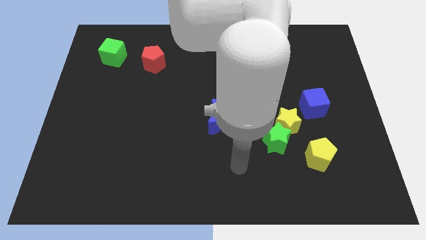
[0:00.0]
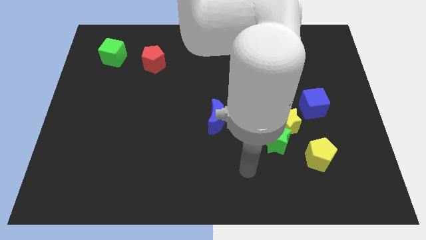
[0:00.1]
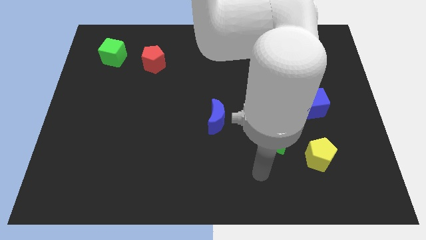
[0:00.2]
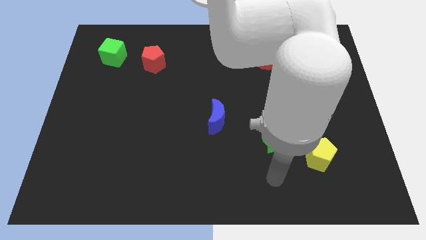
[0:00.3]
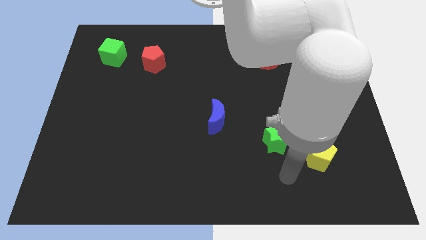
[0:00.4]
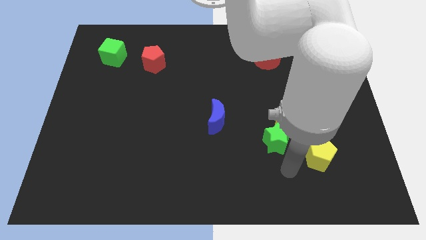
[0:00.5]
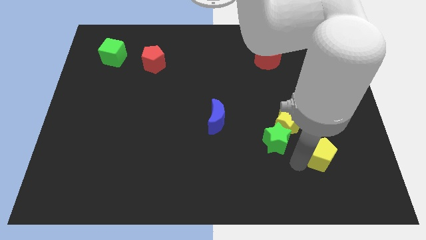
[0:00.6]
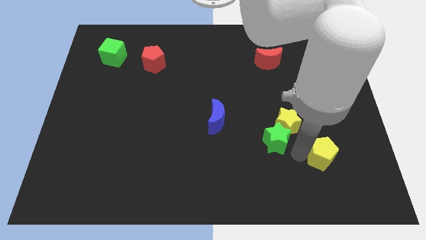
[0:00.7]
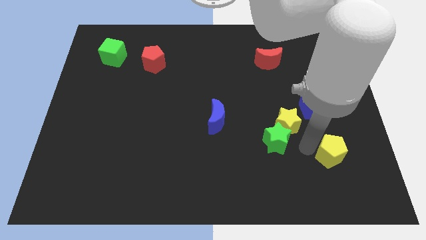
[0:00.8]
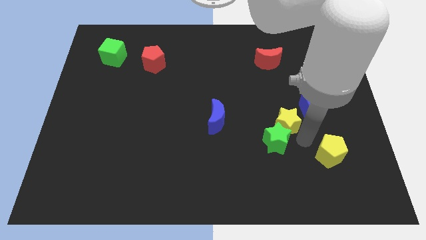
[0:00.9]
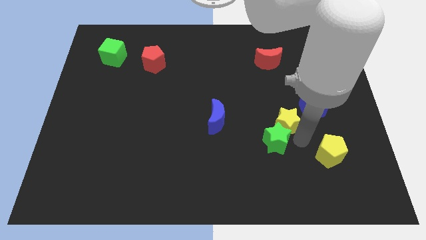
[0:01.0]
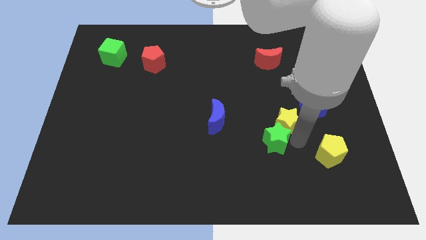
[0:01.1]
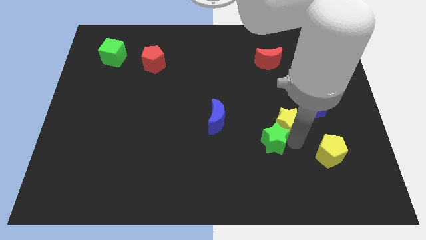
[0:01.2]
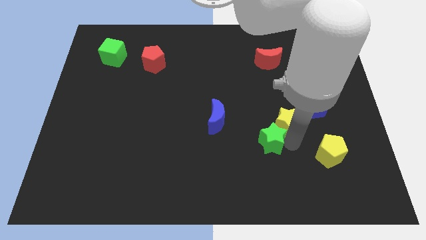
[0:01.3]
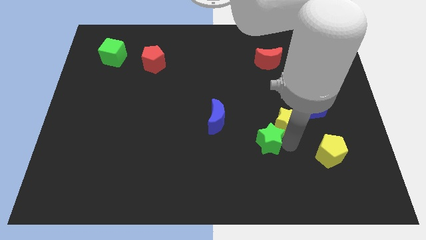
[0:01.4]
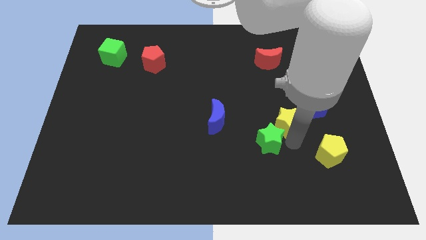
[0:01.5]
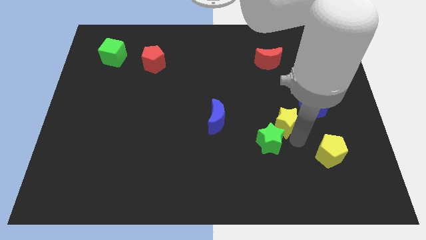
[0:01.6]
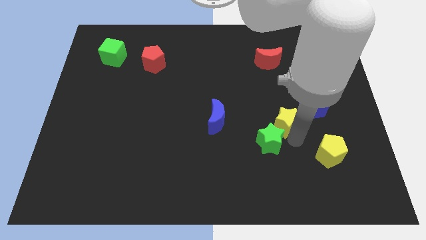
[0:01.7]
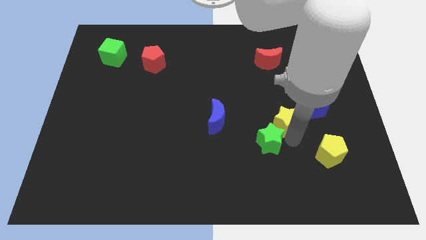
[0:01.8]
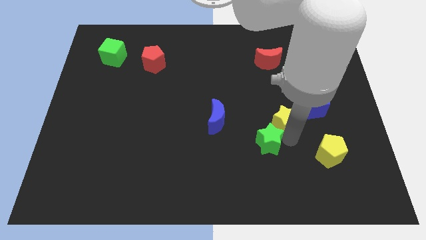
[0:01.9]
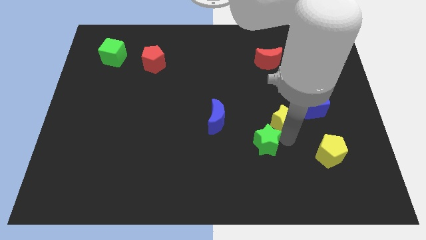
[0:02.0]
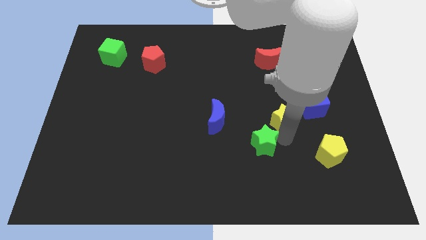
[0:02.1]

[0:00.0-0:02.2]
pull the green star apart from the yellow star and yellow pentagon

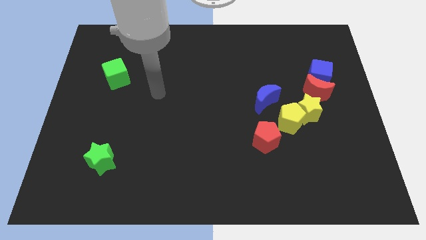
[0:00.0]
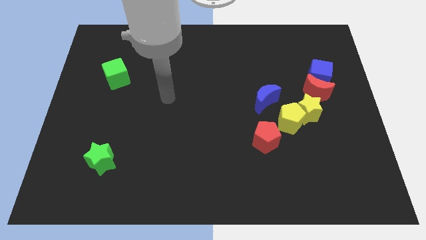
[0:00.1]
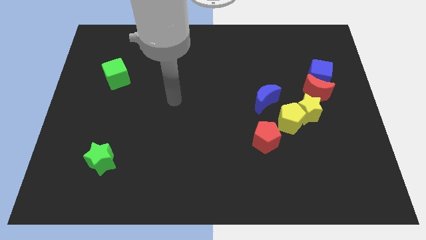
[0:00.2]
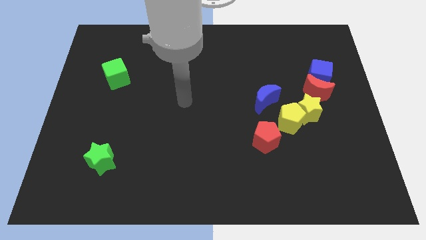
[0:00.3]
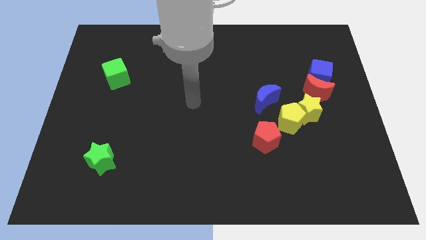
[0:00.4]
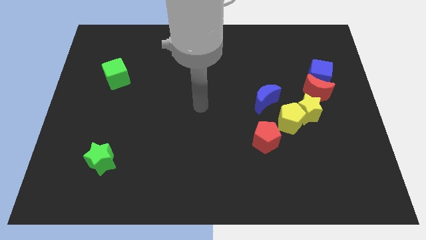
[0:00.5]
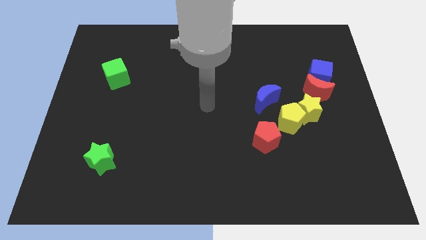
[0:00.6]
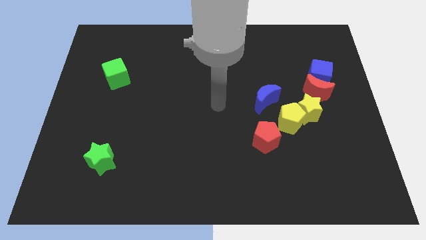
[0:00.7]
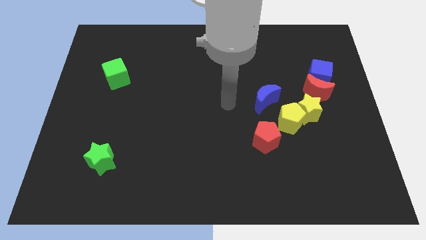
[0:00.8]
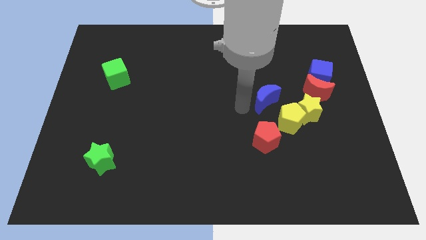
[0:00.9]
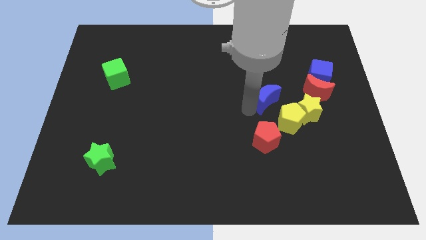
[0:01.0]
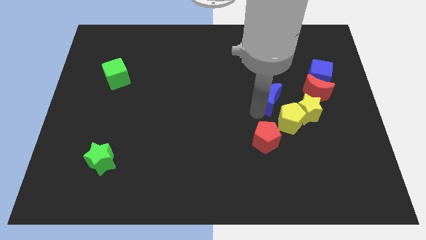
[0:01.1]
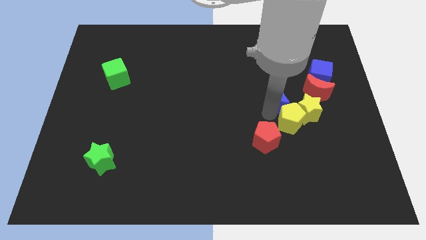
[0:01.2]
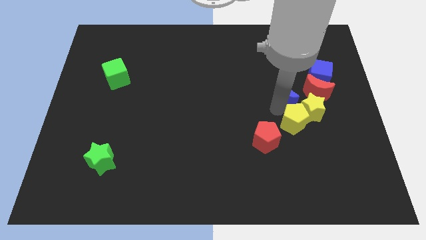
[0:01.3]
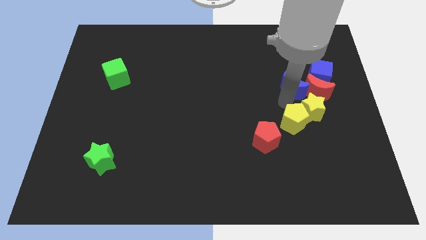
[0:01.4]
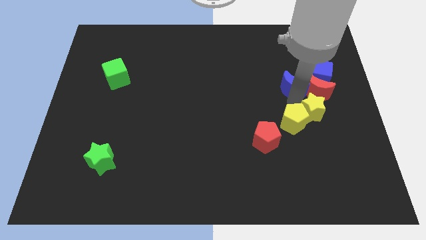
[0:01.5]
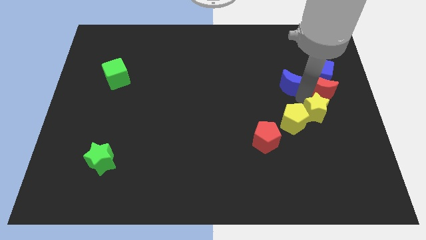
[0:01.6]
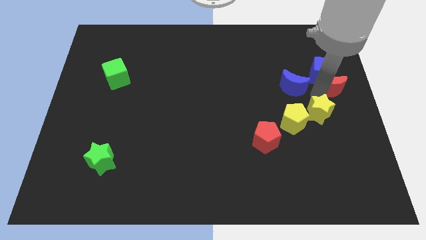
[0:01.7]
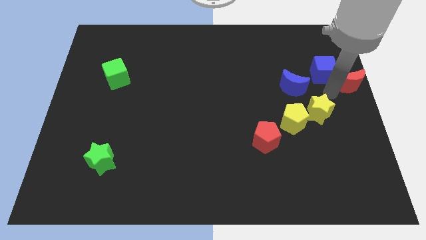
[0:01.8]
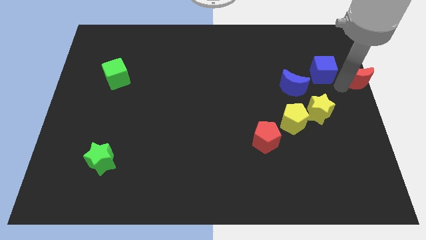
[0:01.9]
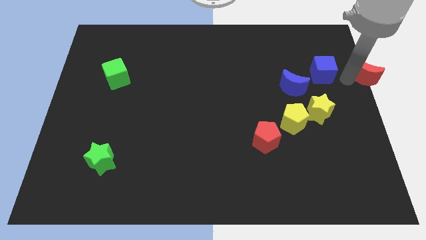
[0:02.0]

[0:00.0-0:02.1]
separate the blue cube from the red moon

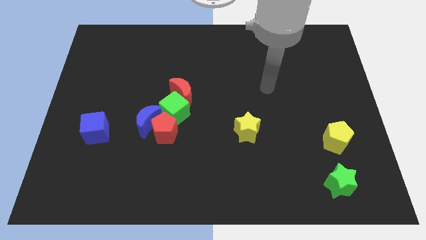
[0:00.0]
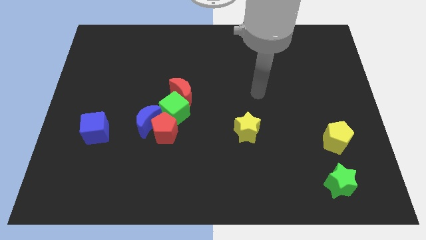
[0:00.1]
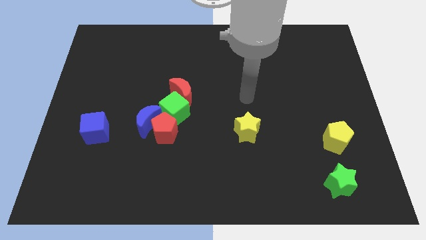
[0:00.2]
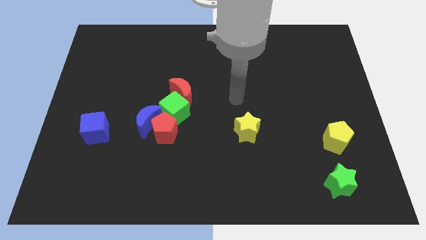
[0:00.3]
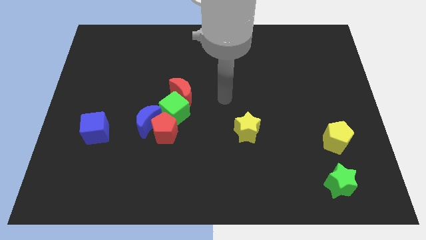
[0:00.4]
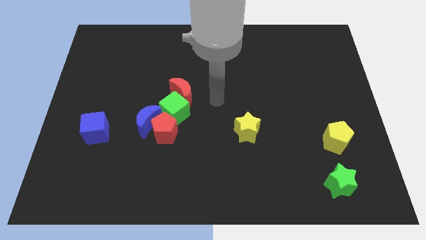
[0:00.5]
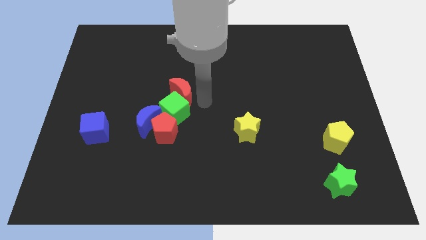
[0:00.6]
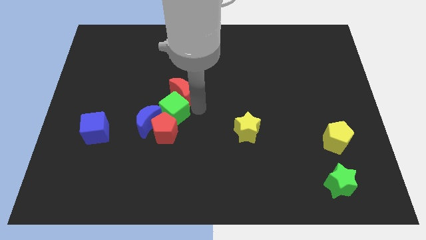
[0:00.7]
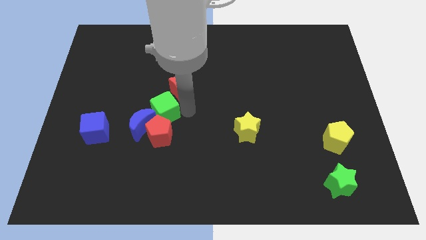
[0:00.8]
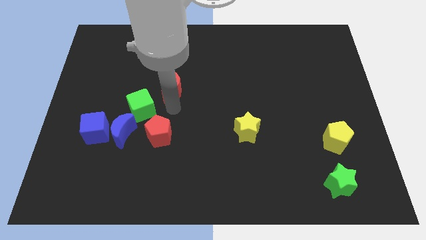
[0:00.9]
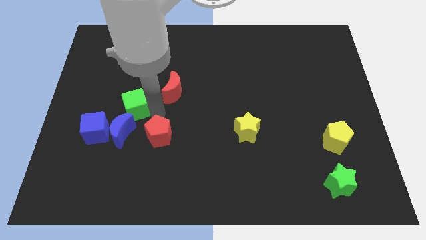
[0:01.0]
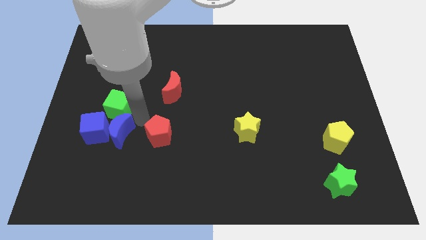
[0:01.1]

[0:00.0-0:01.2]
separate the red pentagon from the blue moon and green cube

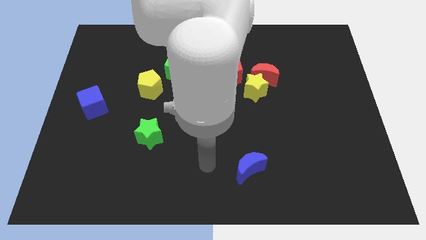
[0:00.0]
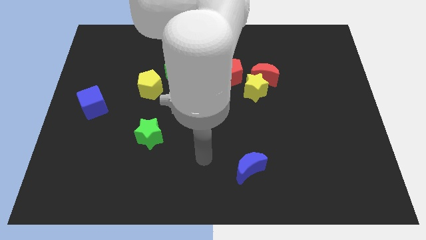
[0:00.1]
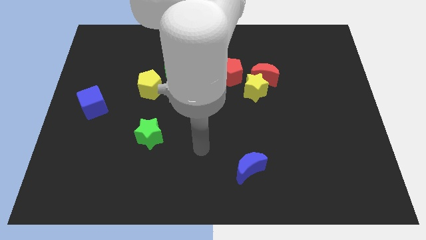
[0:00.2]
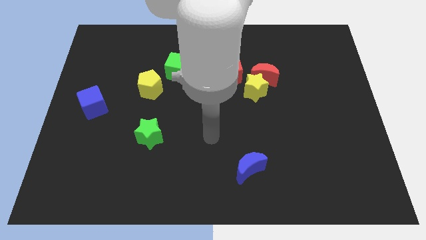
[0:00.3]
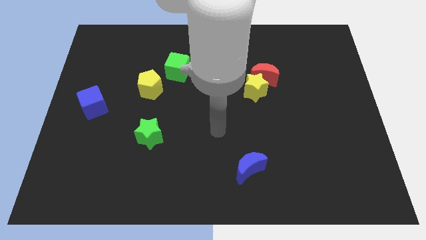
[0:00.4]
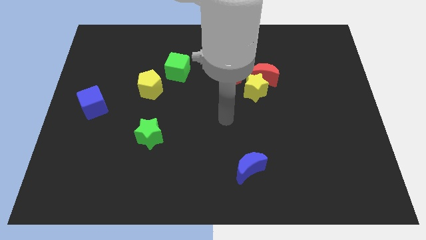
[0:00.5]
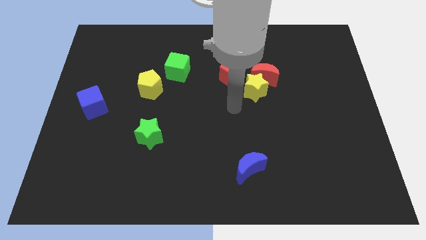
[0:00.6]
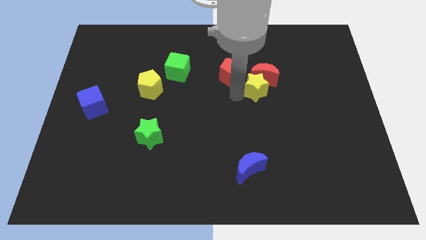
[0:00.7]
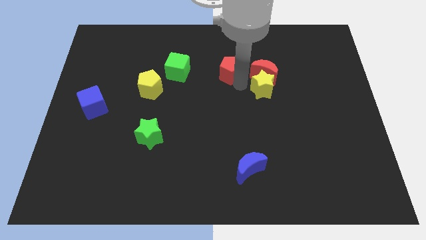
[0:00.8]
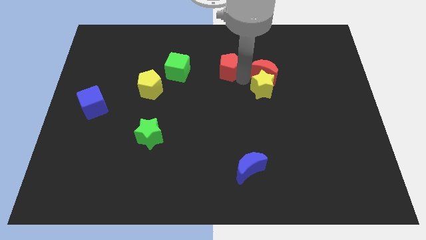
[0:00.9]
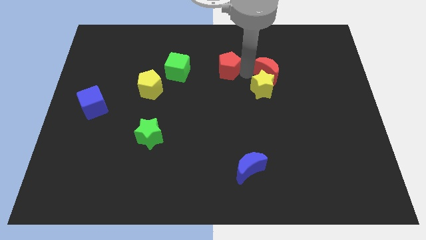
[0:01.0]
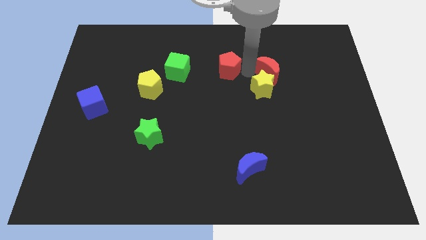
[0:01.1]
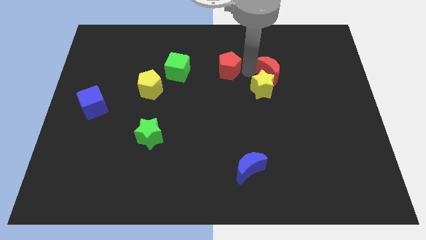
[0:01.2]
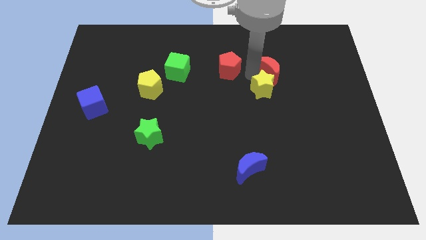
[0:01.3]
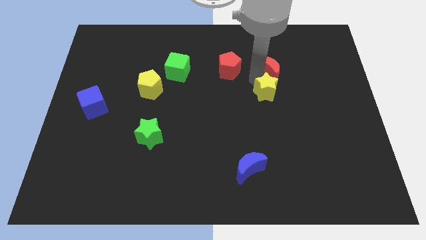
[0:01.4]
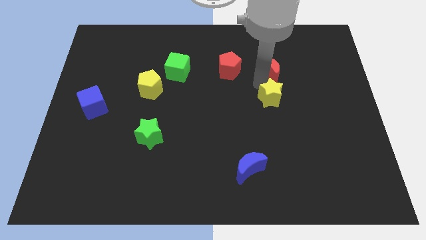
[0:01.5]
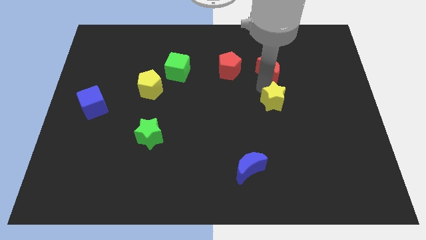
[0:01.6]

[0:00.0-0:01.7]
move the yellow star away from the red moon and red pentagon

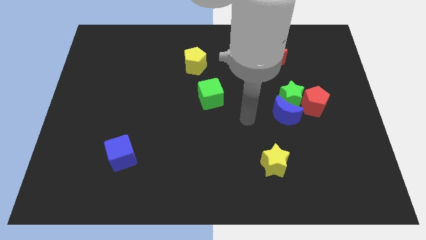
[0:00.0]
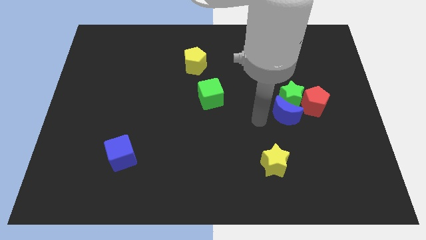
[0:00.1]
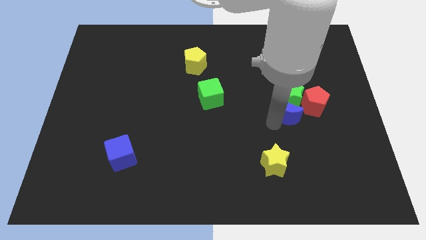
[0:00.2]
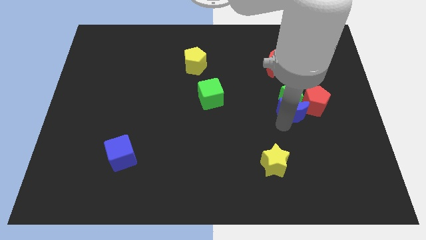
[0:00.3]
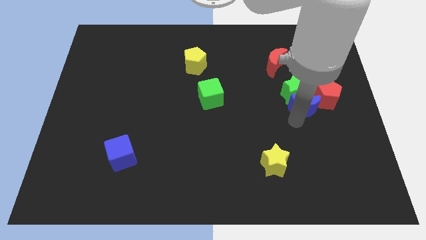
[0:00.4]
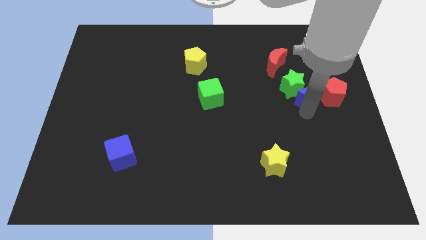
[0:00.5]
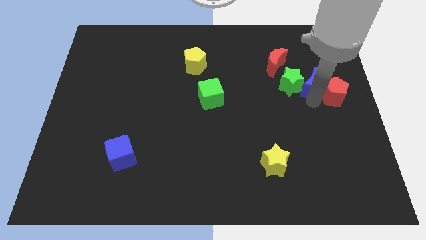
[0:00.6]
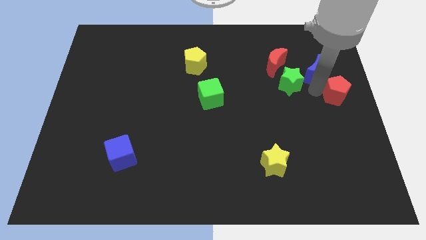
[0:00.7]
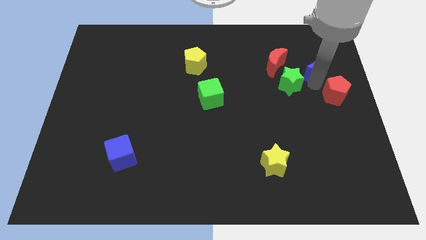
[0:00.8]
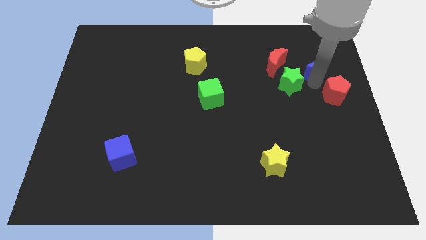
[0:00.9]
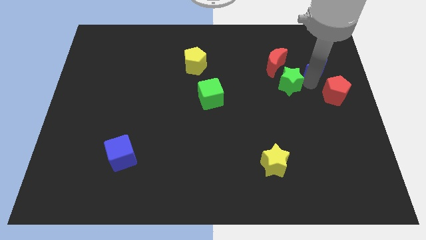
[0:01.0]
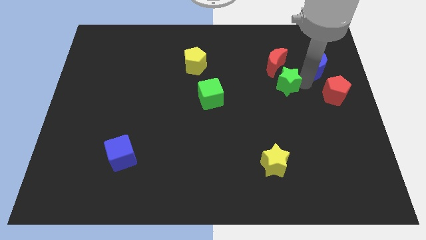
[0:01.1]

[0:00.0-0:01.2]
pull the green star apart from the blue moon and red pentagon

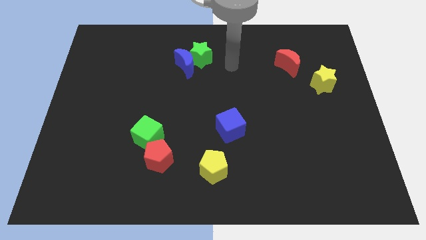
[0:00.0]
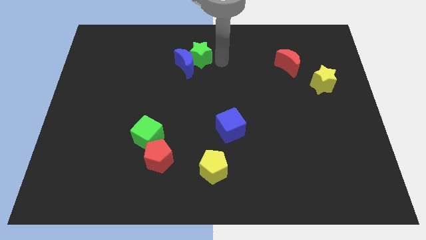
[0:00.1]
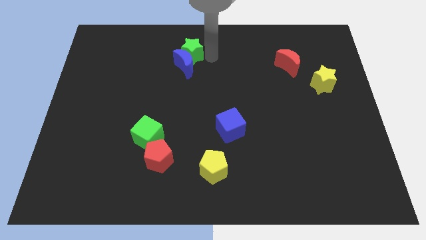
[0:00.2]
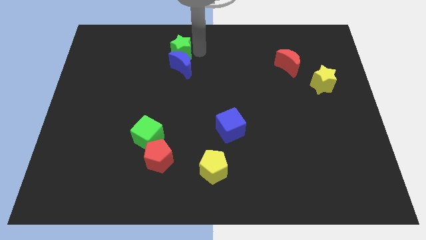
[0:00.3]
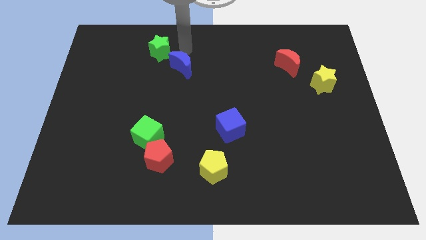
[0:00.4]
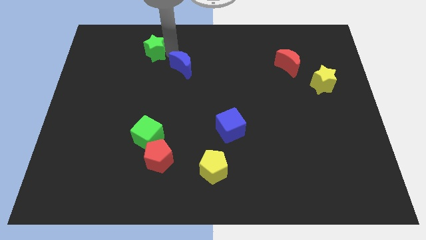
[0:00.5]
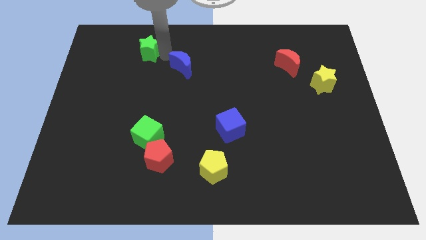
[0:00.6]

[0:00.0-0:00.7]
pull the blue moon apart from the green star

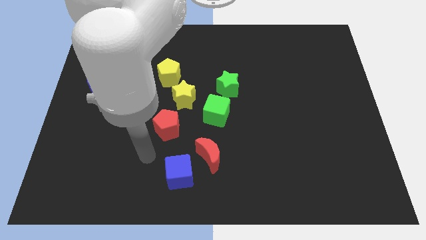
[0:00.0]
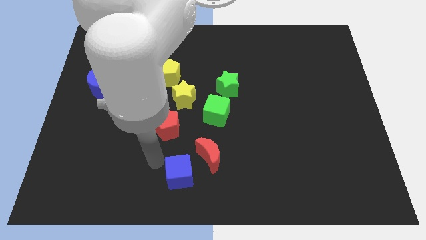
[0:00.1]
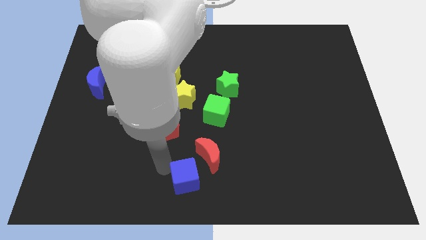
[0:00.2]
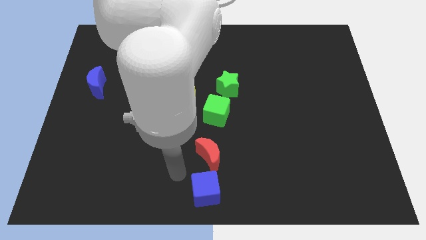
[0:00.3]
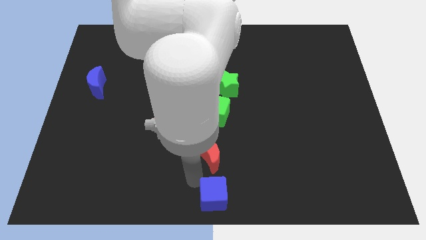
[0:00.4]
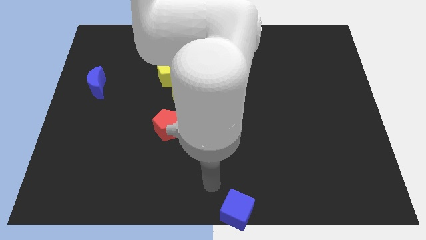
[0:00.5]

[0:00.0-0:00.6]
move the red moon away from the blue cube
